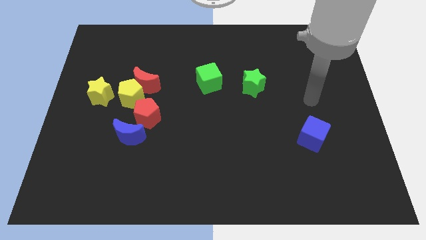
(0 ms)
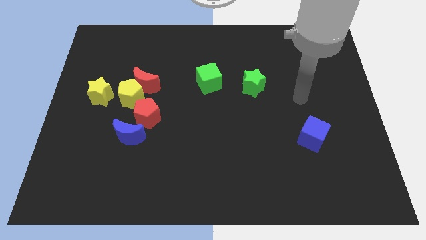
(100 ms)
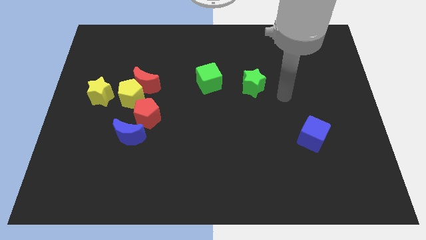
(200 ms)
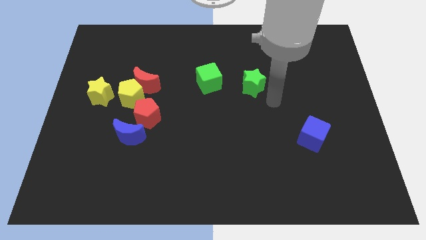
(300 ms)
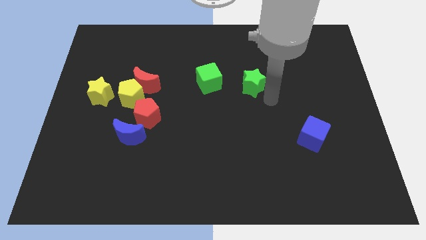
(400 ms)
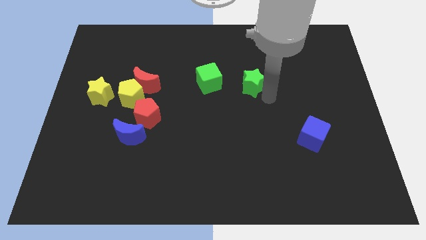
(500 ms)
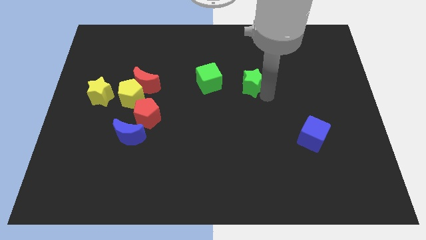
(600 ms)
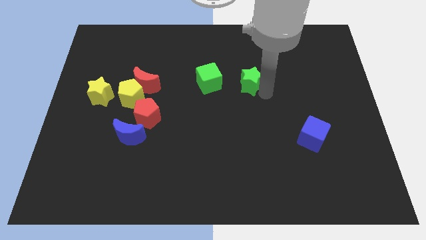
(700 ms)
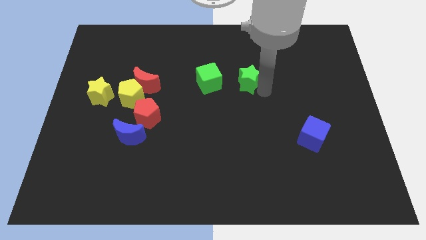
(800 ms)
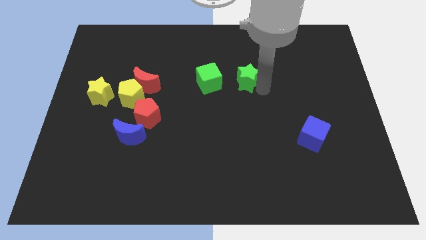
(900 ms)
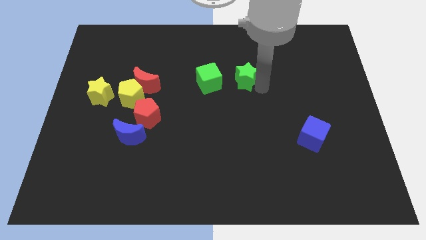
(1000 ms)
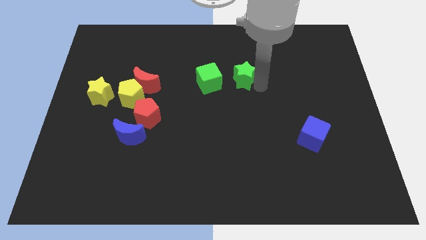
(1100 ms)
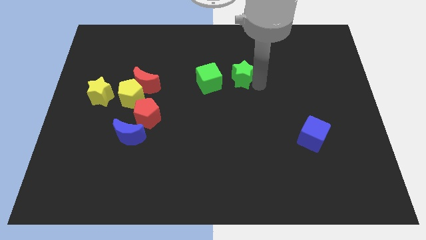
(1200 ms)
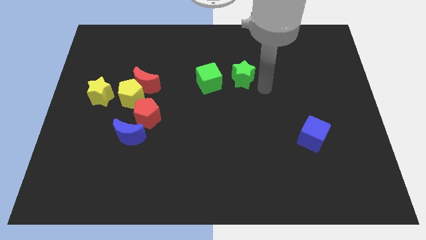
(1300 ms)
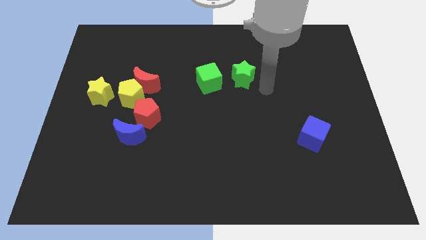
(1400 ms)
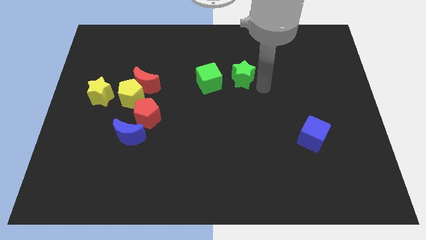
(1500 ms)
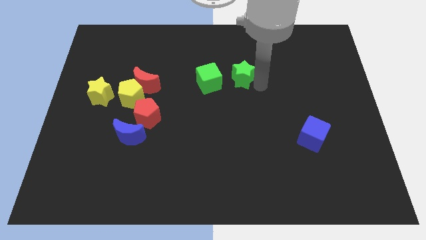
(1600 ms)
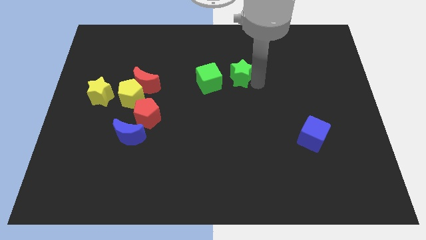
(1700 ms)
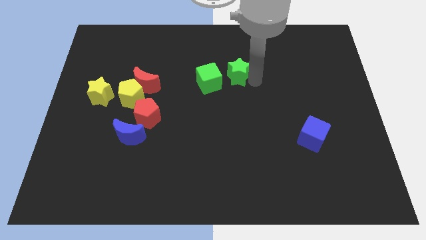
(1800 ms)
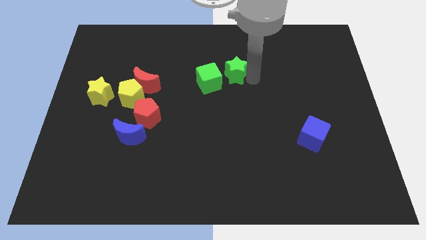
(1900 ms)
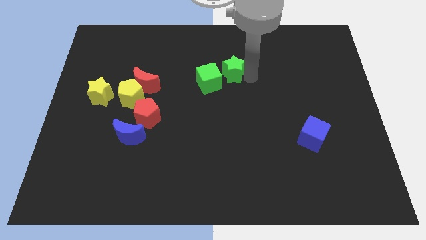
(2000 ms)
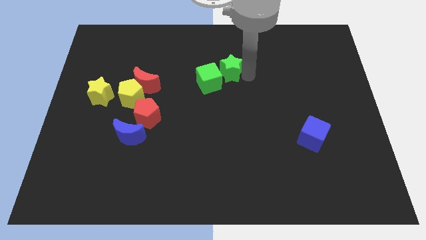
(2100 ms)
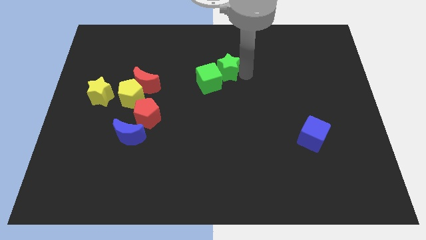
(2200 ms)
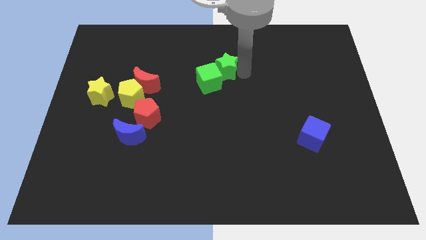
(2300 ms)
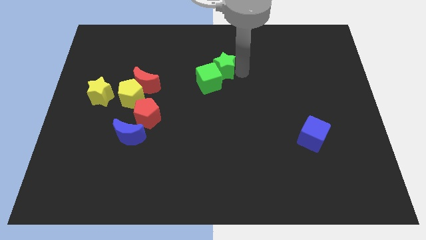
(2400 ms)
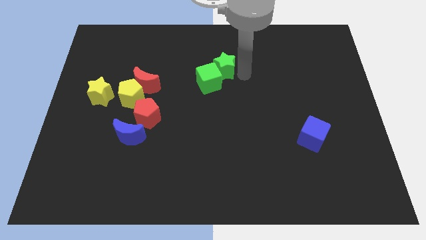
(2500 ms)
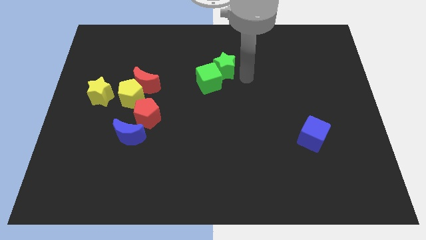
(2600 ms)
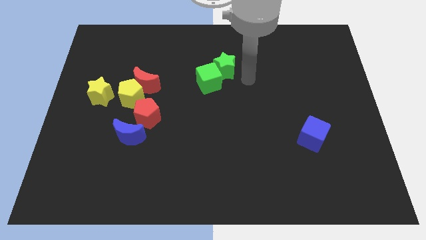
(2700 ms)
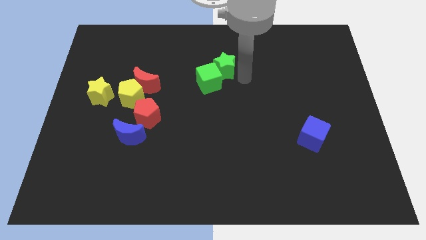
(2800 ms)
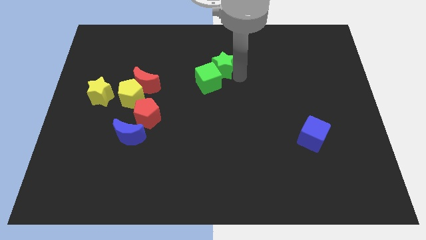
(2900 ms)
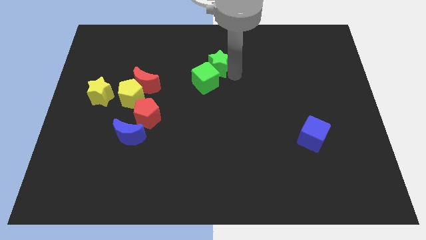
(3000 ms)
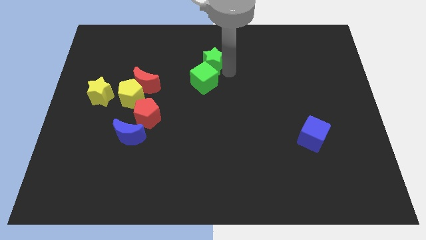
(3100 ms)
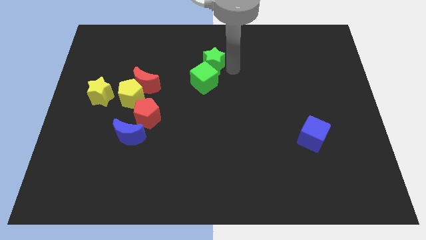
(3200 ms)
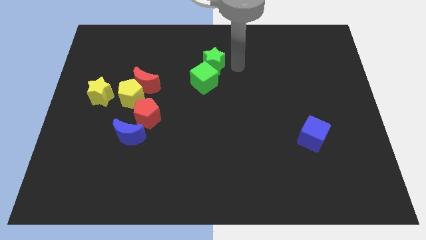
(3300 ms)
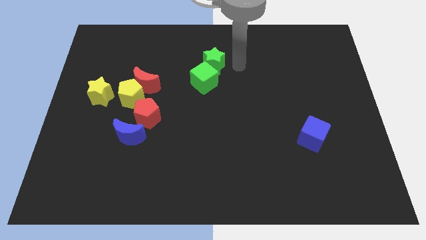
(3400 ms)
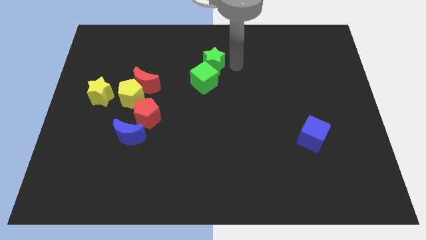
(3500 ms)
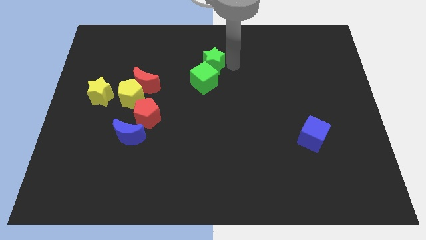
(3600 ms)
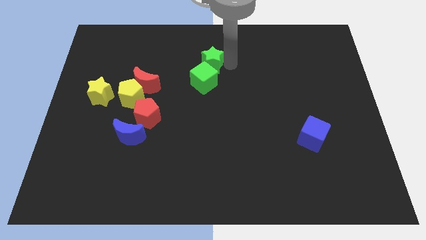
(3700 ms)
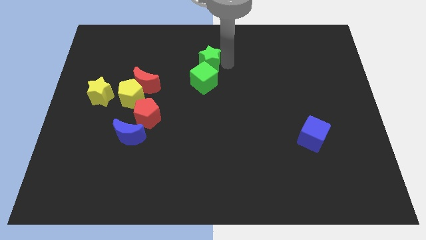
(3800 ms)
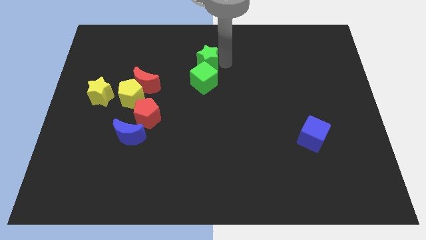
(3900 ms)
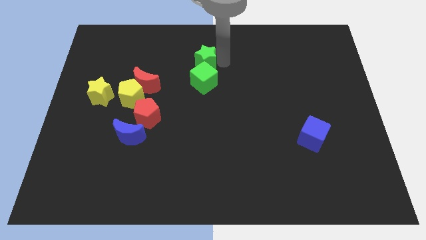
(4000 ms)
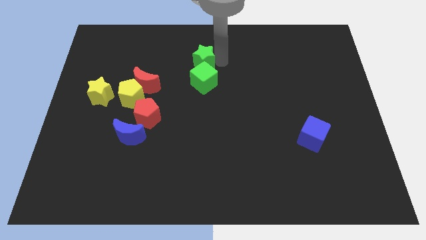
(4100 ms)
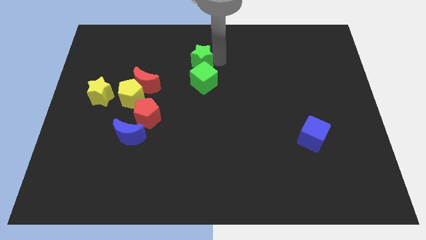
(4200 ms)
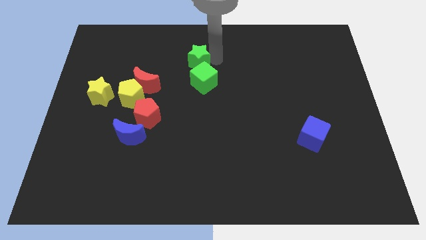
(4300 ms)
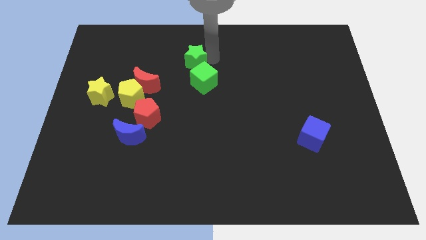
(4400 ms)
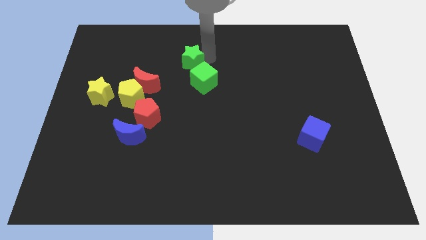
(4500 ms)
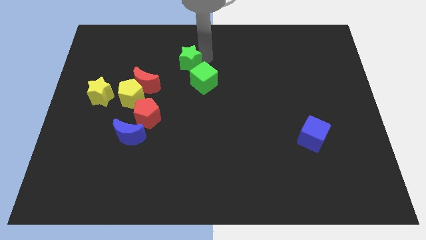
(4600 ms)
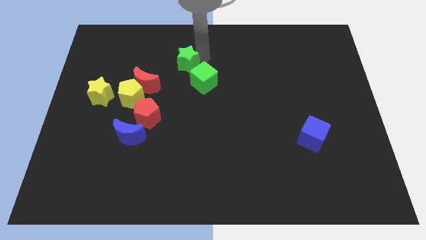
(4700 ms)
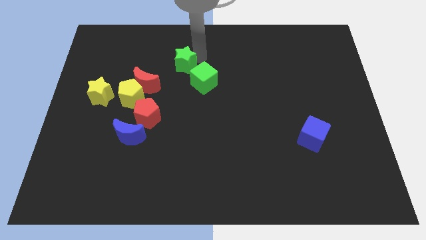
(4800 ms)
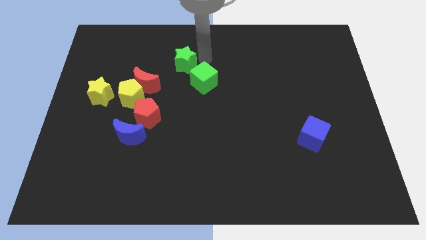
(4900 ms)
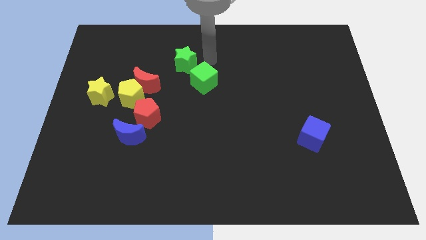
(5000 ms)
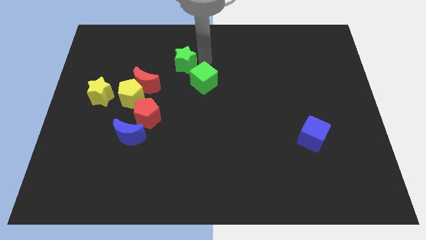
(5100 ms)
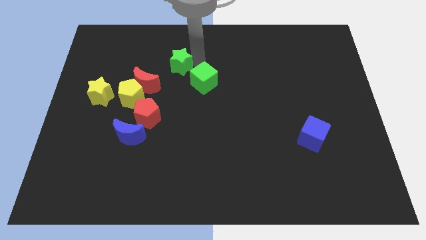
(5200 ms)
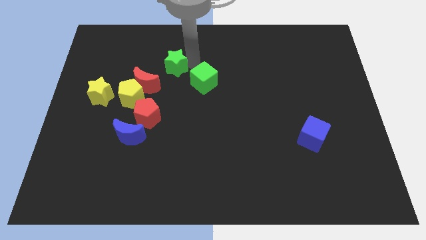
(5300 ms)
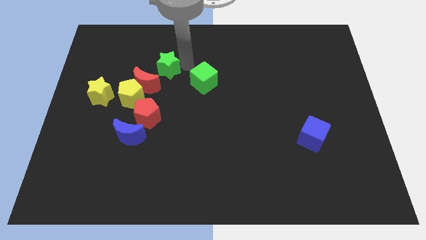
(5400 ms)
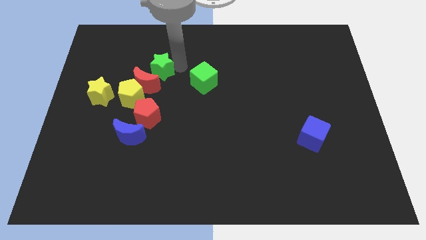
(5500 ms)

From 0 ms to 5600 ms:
push the green star to the left

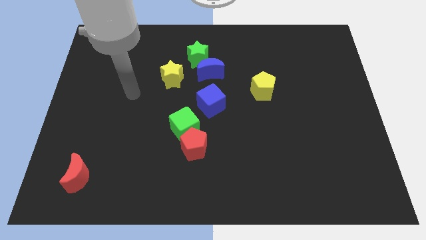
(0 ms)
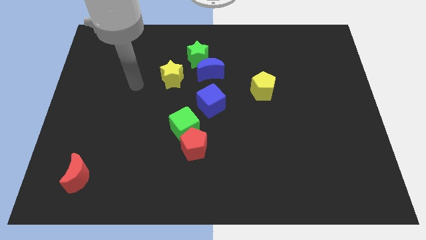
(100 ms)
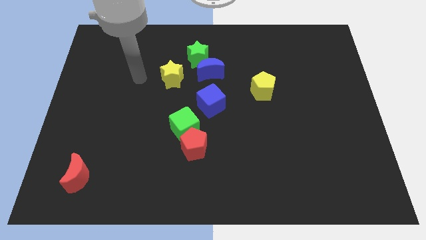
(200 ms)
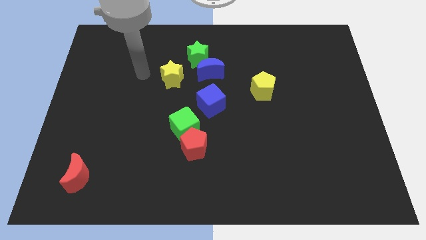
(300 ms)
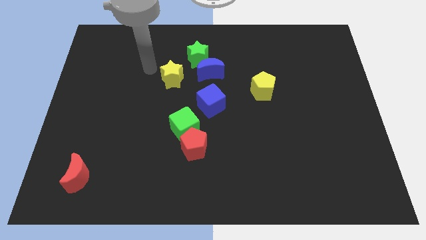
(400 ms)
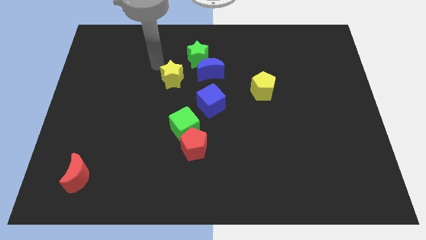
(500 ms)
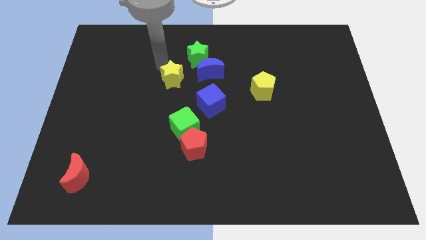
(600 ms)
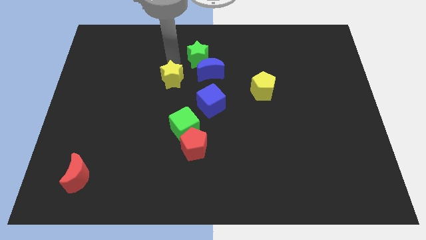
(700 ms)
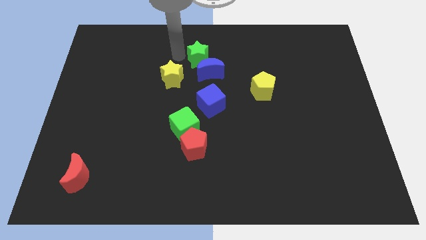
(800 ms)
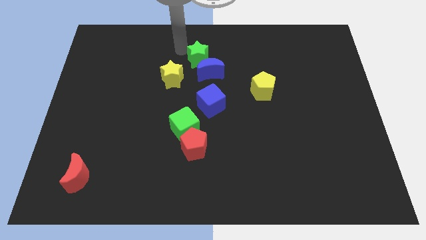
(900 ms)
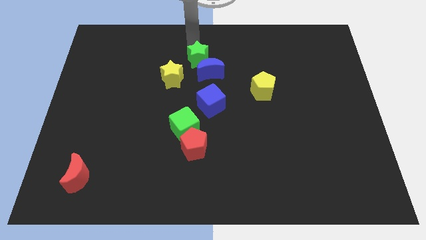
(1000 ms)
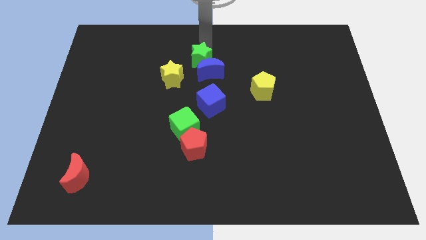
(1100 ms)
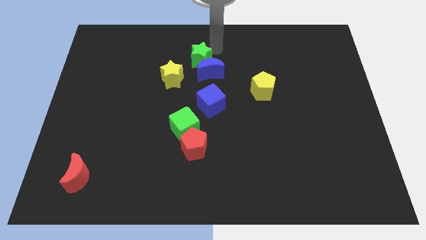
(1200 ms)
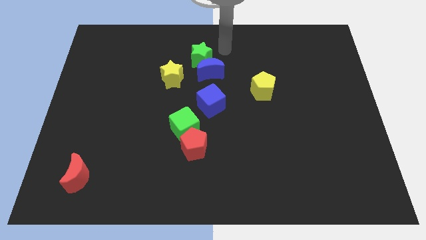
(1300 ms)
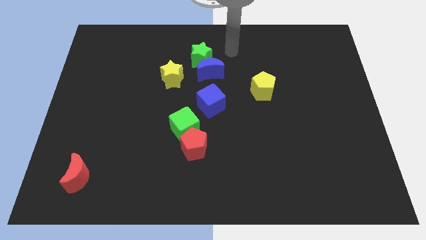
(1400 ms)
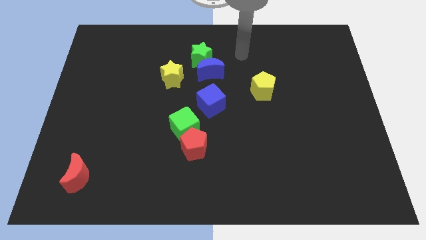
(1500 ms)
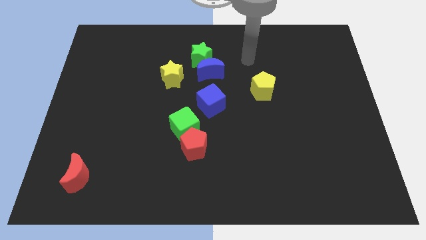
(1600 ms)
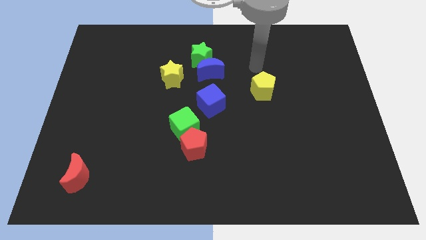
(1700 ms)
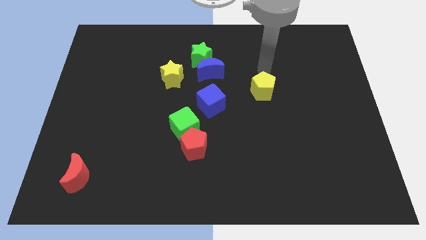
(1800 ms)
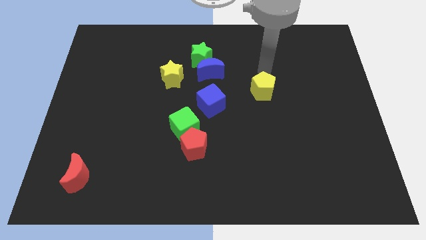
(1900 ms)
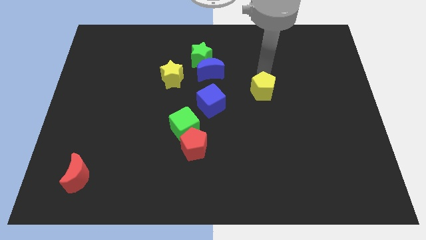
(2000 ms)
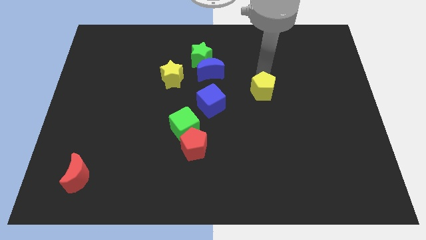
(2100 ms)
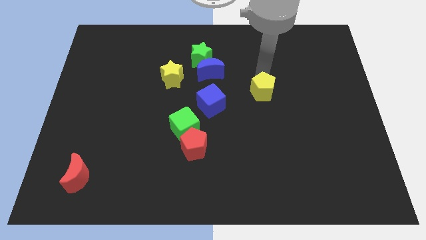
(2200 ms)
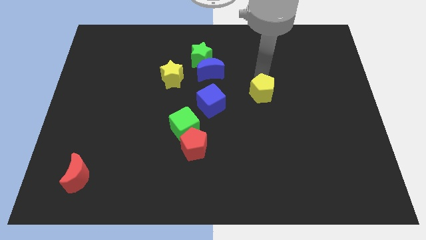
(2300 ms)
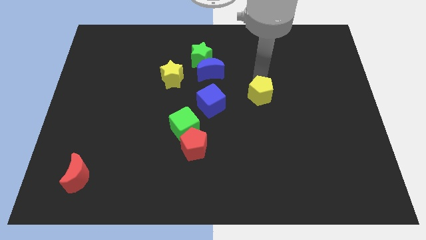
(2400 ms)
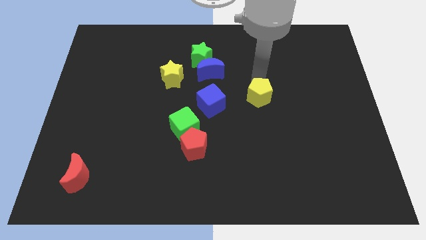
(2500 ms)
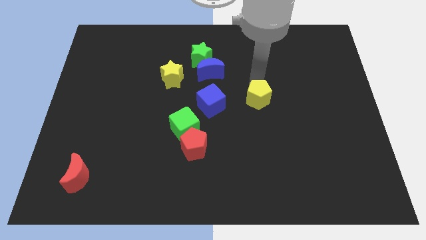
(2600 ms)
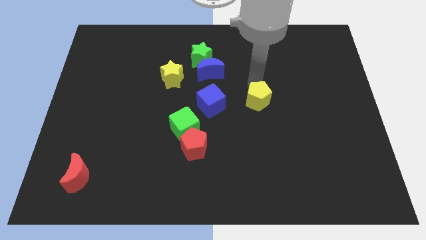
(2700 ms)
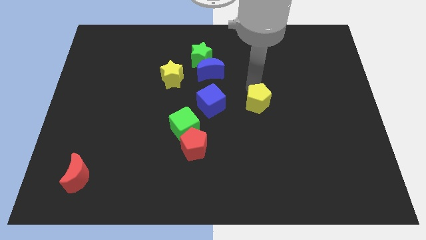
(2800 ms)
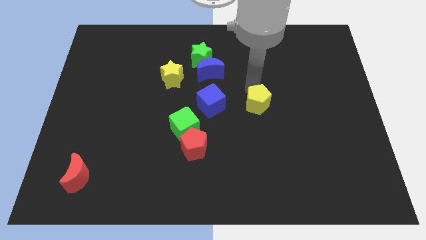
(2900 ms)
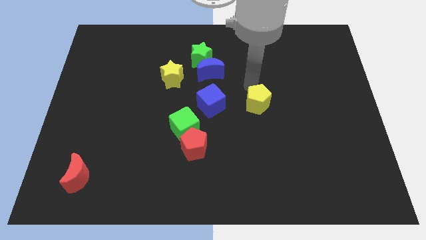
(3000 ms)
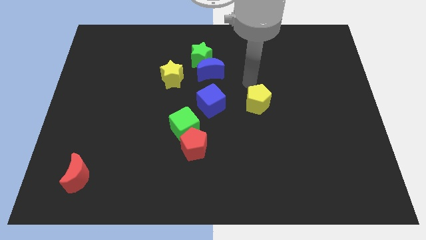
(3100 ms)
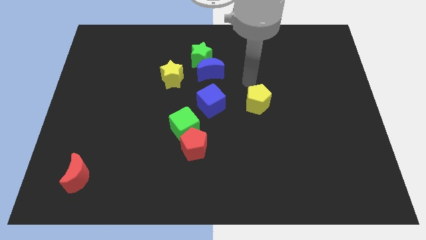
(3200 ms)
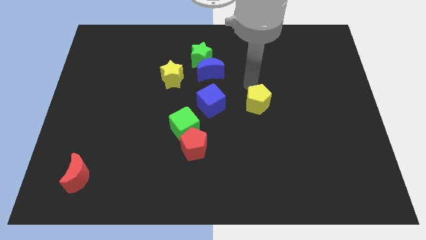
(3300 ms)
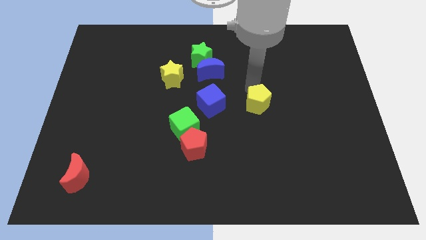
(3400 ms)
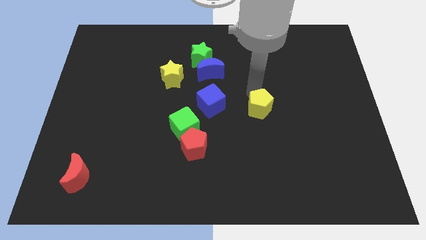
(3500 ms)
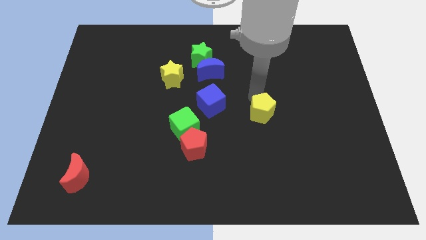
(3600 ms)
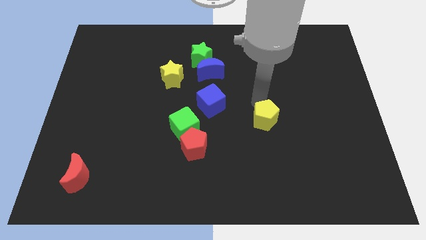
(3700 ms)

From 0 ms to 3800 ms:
slightly move the yellow pentagon downwards
